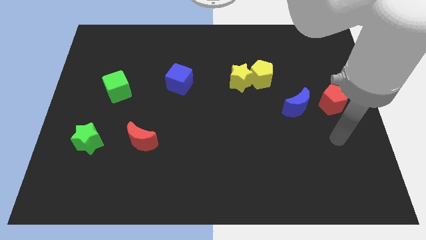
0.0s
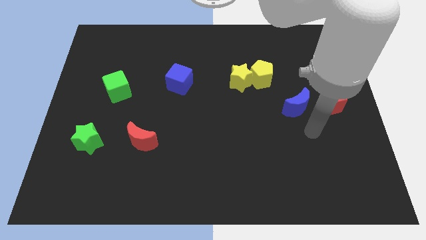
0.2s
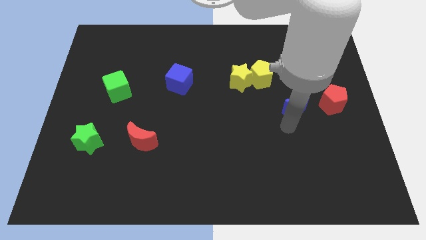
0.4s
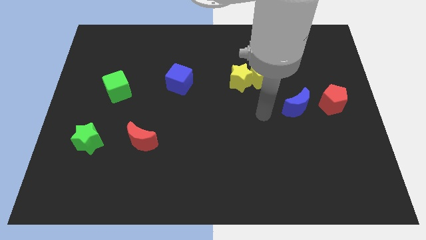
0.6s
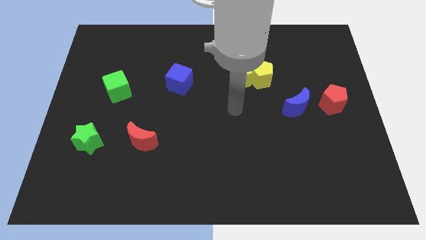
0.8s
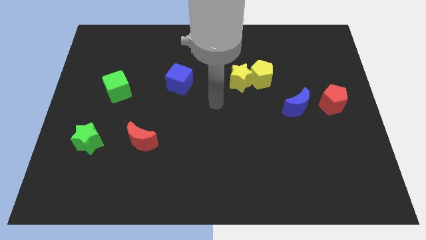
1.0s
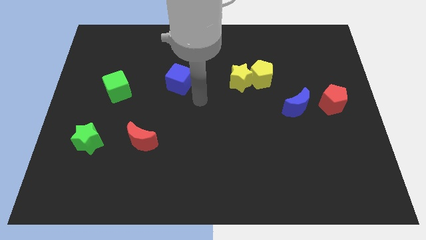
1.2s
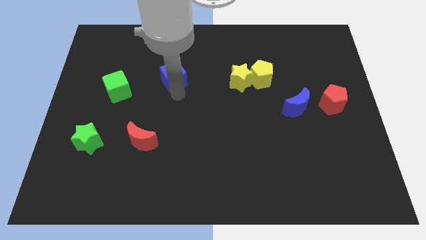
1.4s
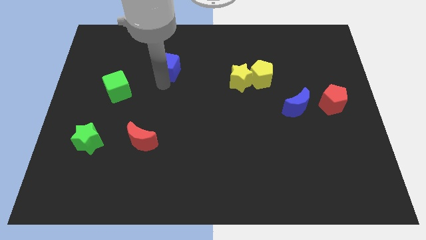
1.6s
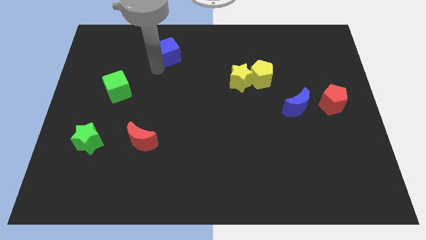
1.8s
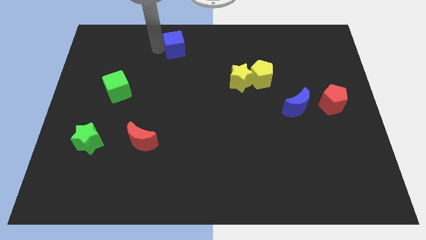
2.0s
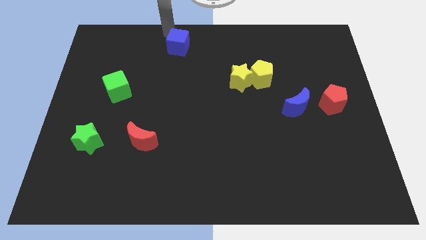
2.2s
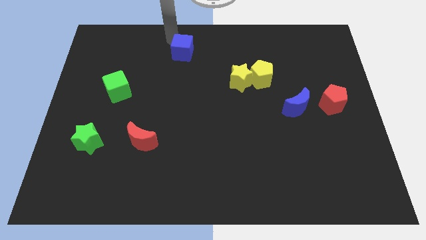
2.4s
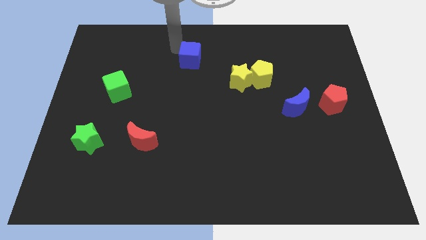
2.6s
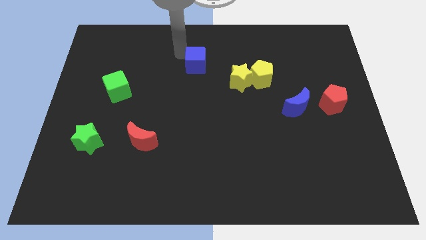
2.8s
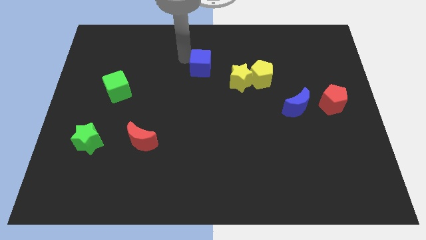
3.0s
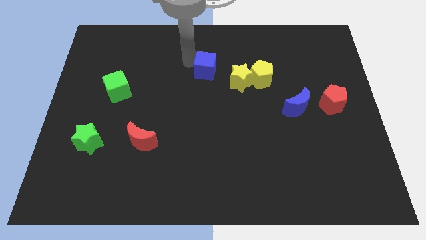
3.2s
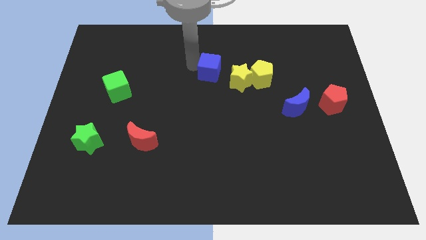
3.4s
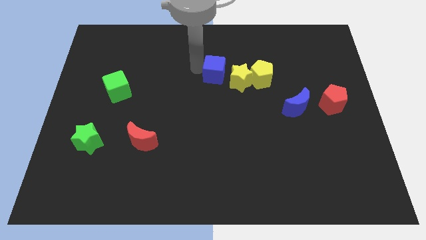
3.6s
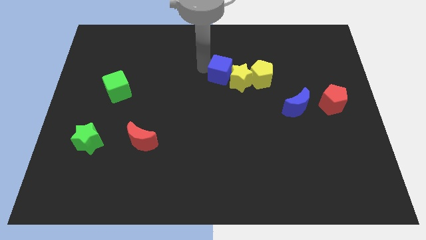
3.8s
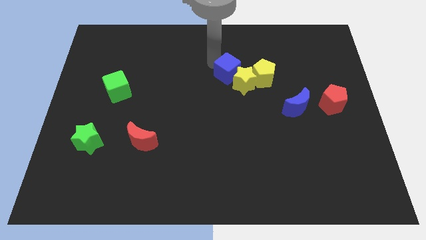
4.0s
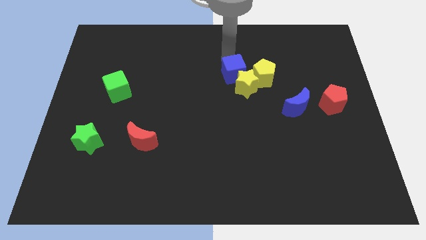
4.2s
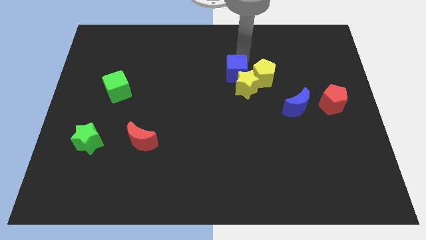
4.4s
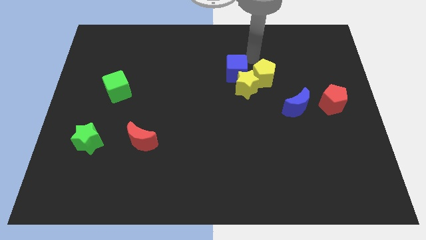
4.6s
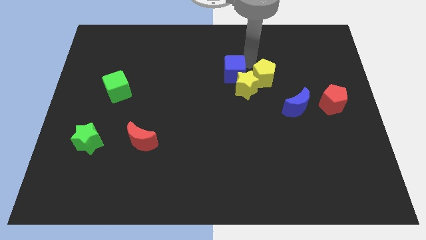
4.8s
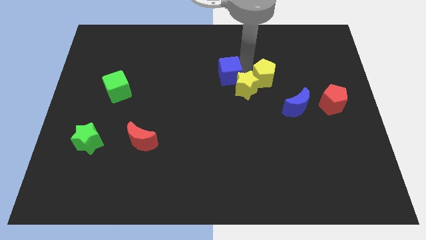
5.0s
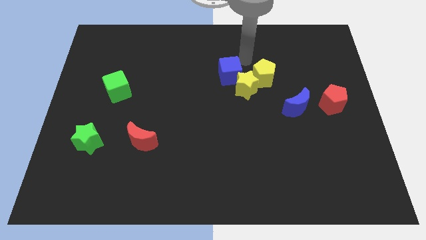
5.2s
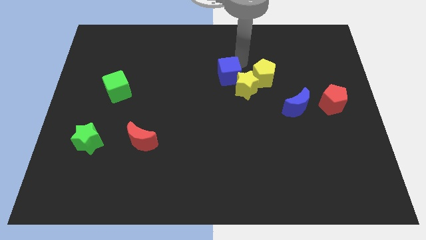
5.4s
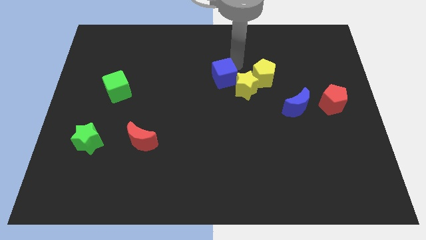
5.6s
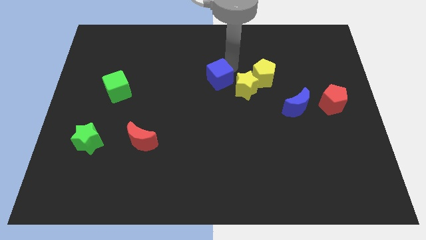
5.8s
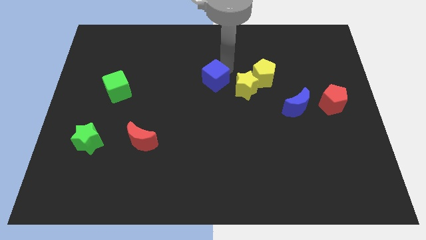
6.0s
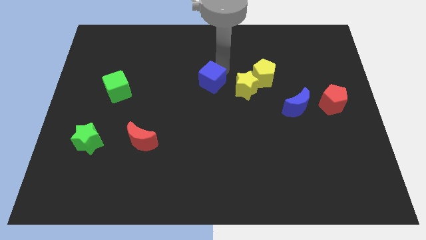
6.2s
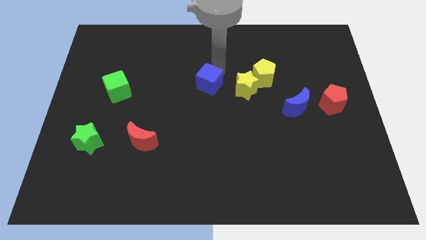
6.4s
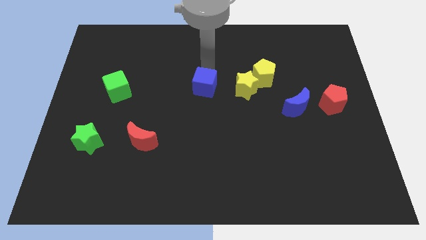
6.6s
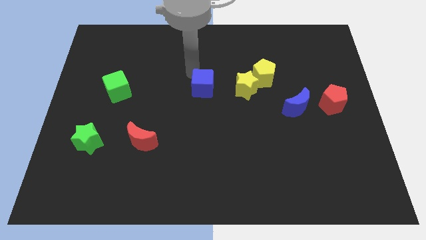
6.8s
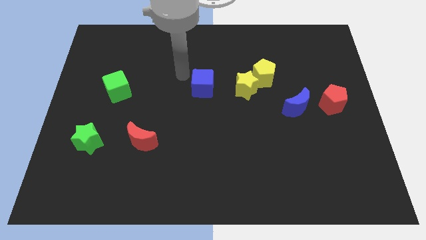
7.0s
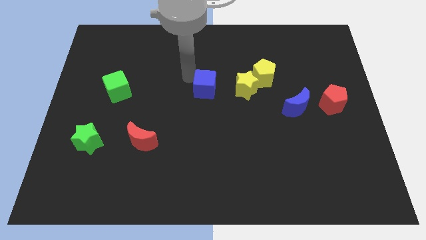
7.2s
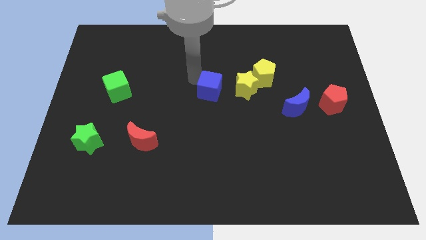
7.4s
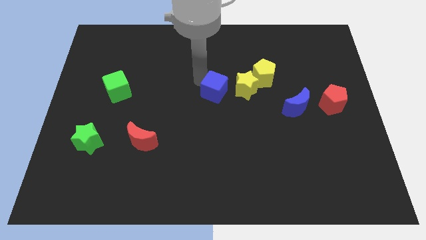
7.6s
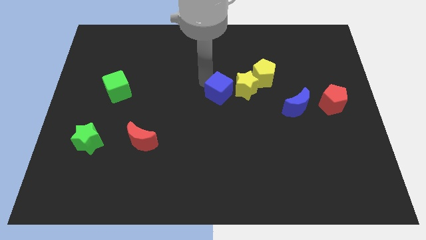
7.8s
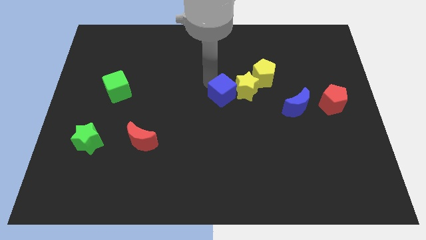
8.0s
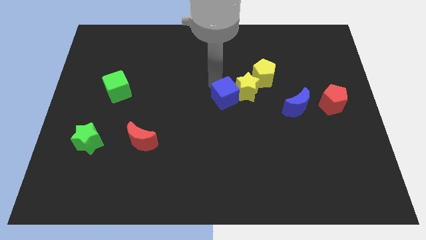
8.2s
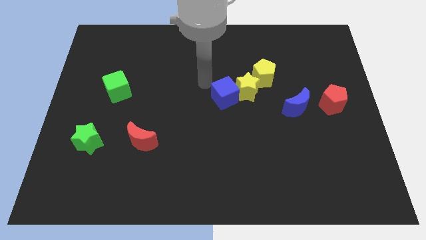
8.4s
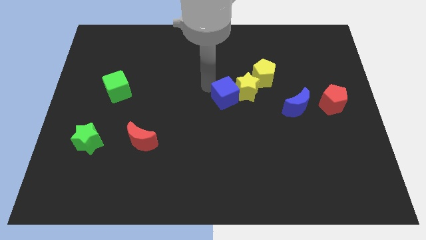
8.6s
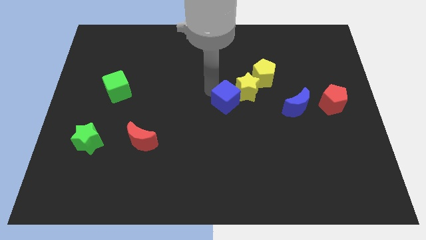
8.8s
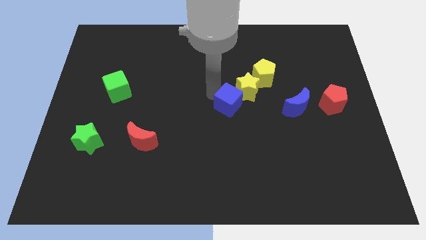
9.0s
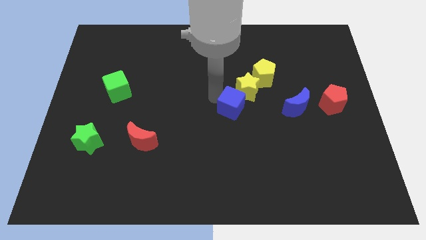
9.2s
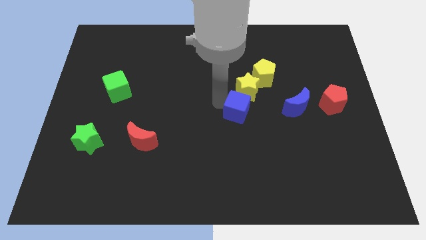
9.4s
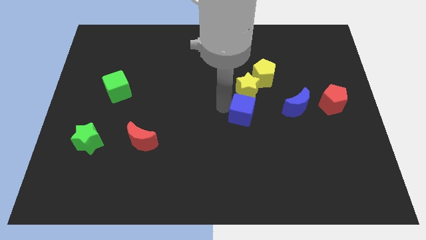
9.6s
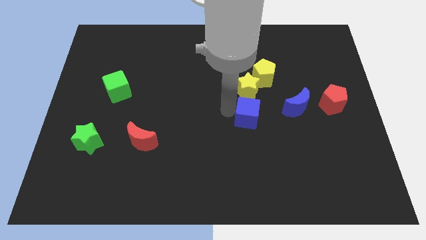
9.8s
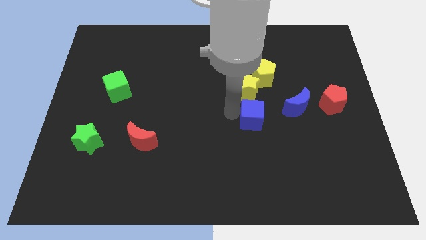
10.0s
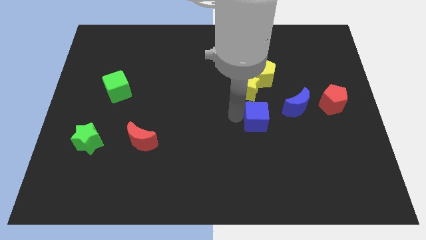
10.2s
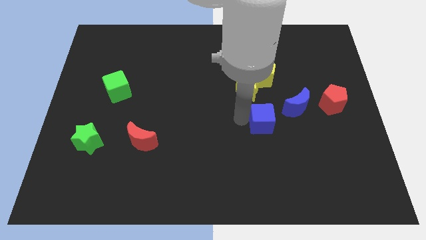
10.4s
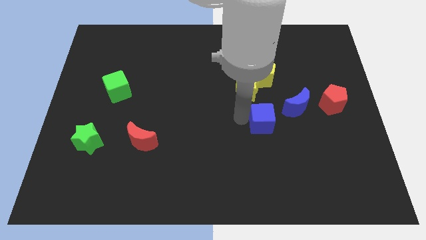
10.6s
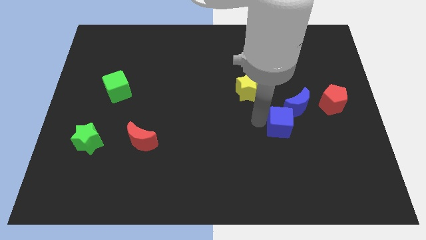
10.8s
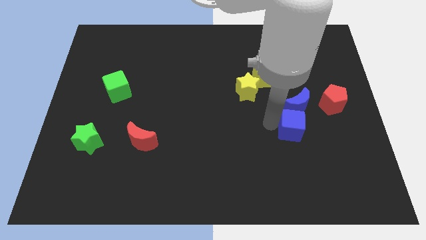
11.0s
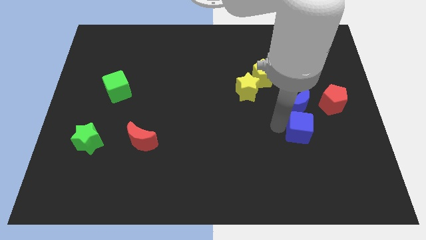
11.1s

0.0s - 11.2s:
put the blue cube diagonally down and to the right of the blue moon

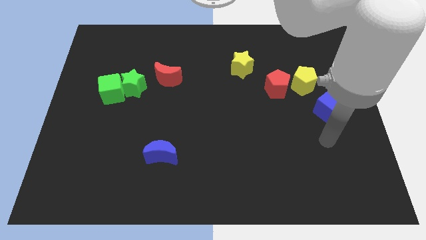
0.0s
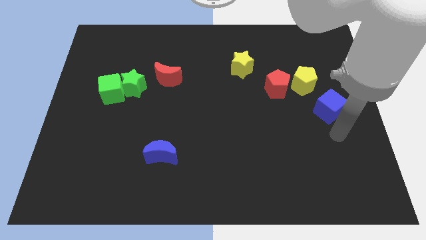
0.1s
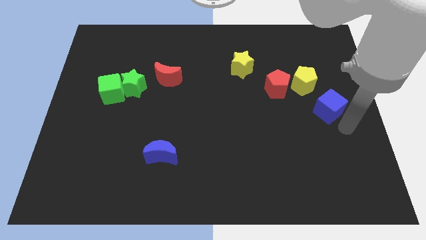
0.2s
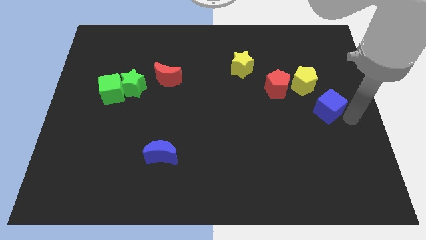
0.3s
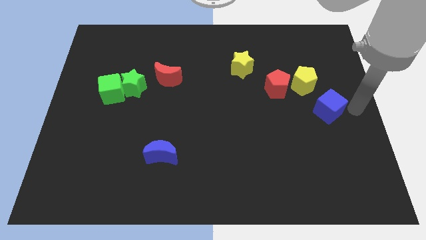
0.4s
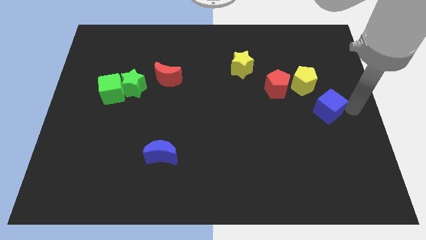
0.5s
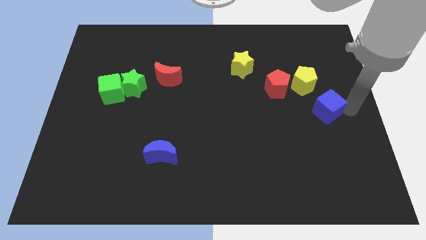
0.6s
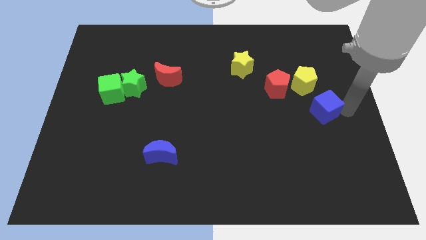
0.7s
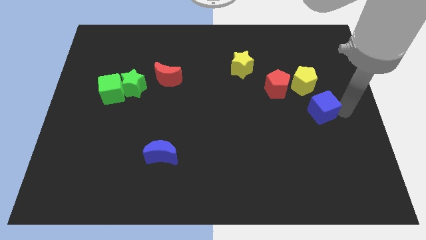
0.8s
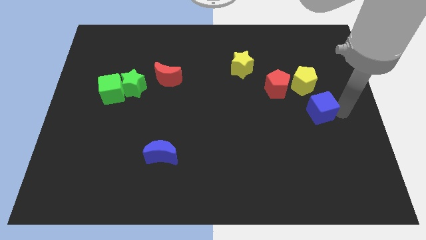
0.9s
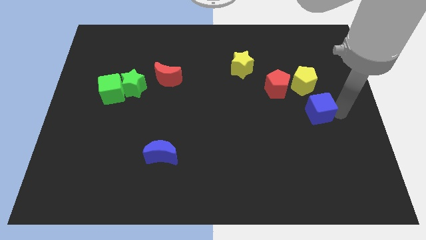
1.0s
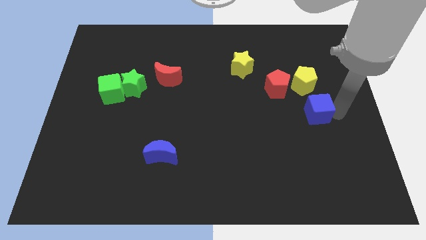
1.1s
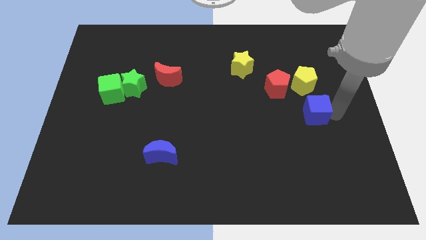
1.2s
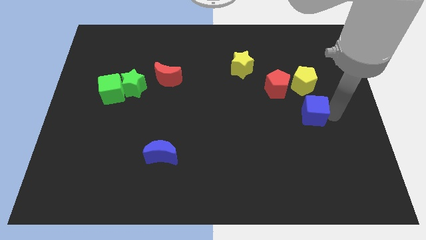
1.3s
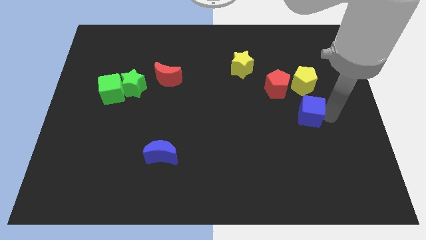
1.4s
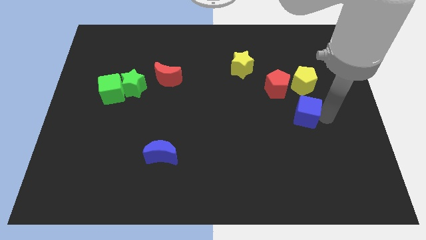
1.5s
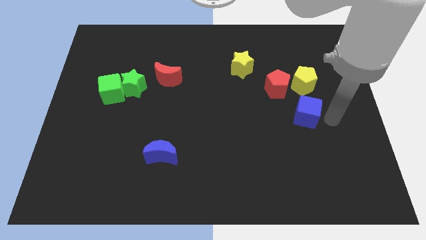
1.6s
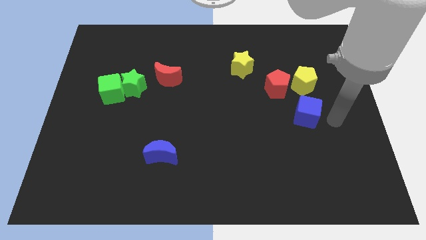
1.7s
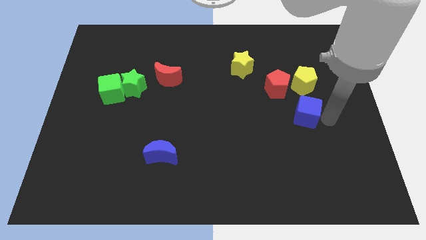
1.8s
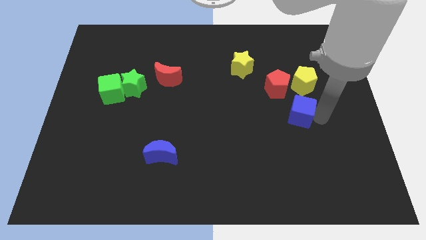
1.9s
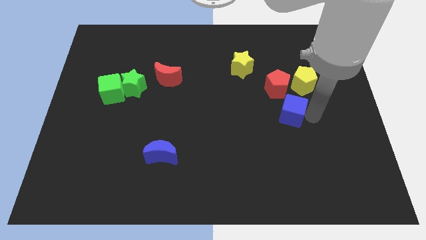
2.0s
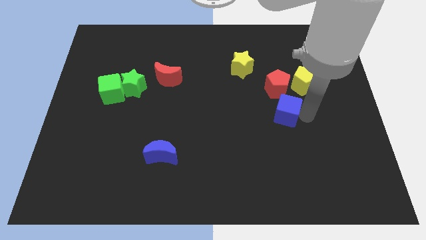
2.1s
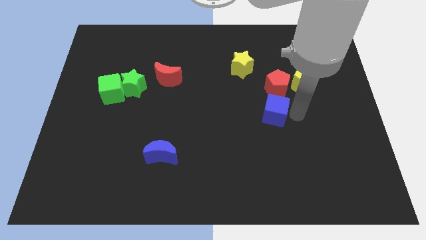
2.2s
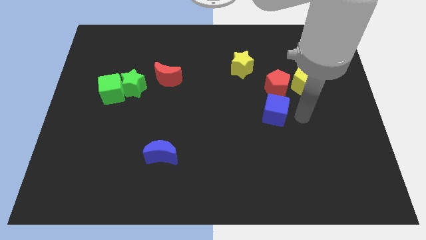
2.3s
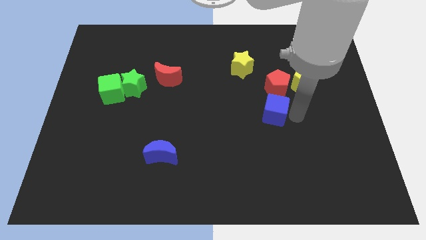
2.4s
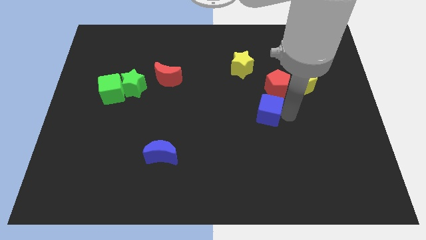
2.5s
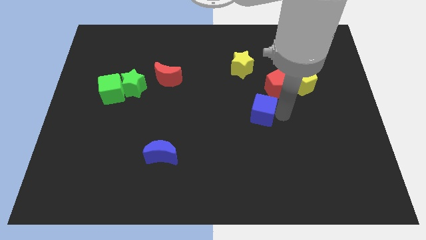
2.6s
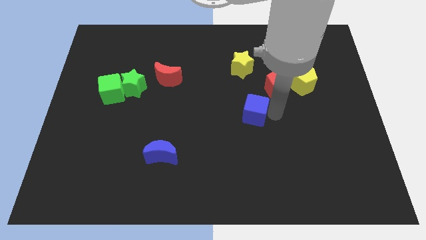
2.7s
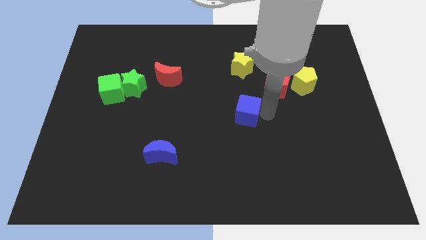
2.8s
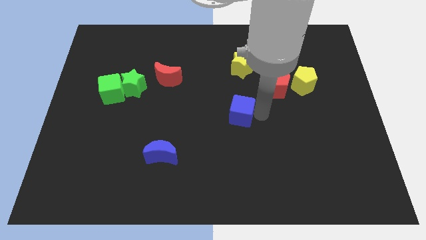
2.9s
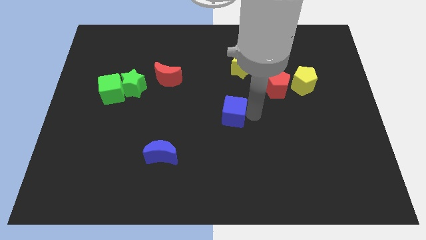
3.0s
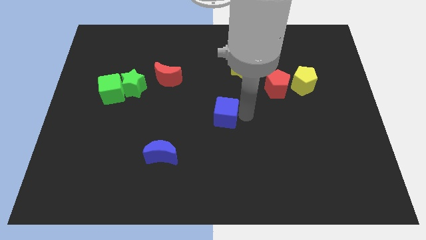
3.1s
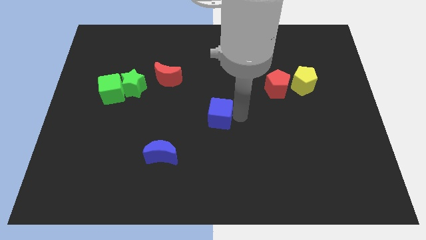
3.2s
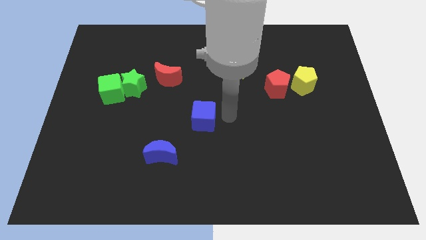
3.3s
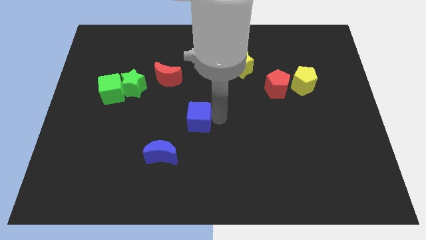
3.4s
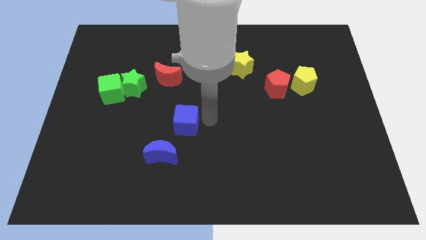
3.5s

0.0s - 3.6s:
put the blue cube above the blue moon
